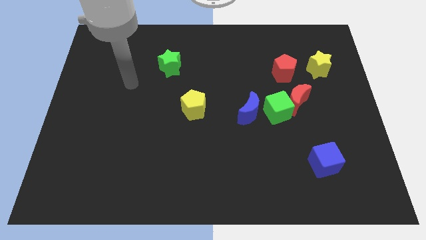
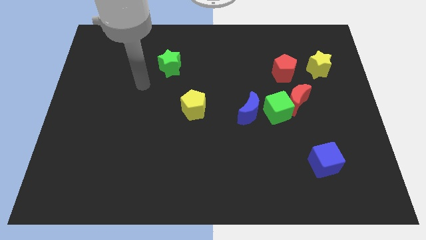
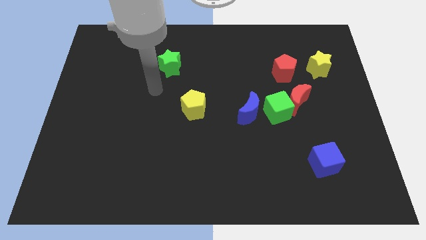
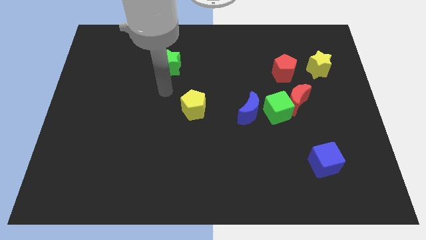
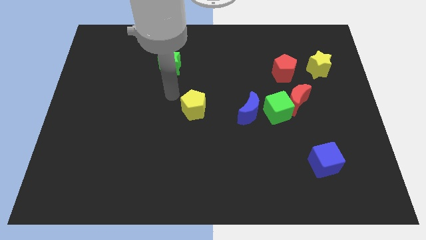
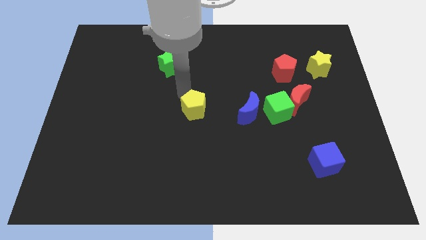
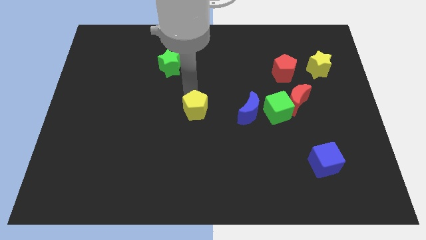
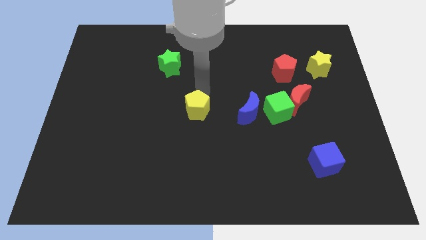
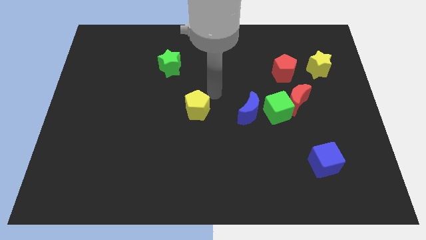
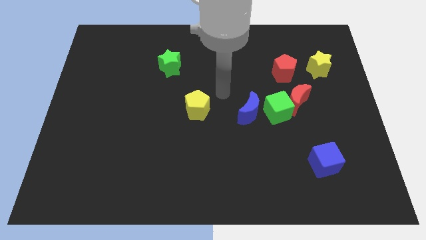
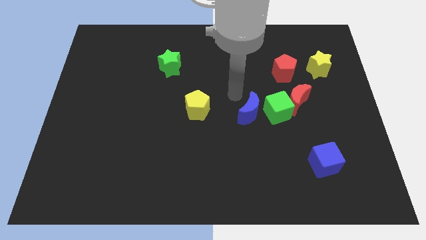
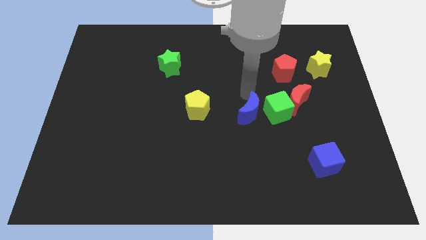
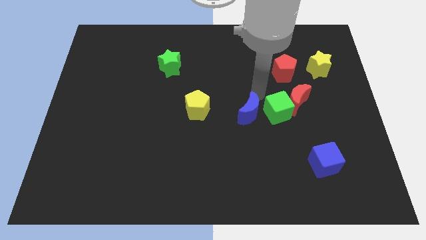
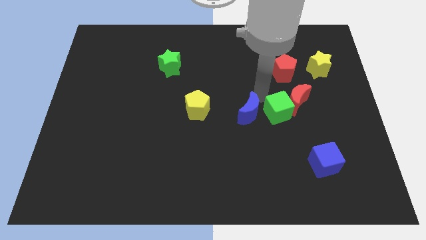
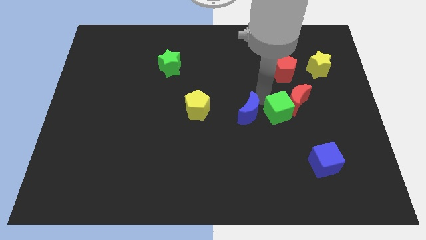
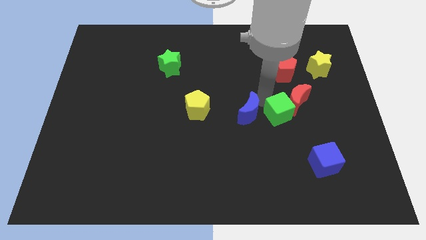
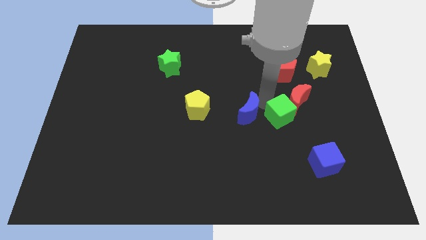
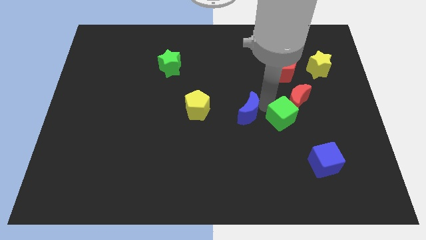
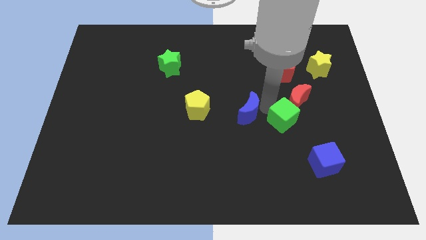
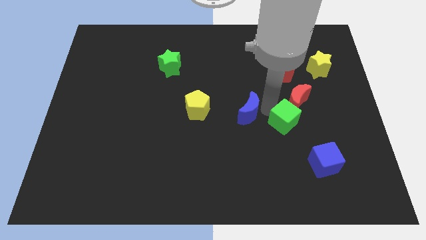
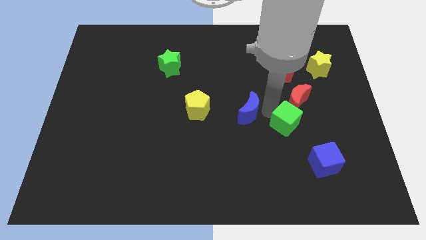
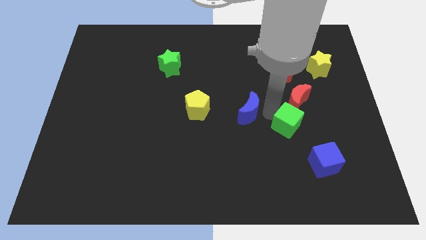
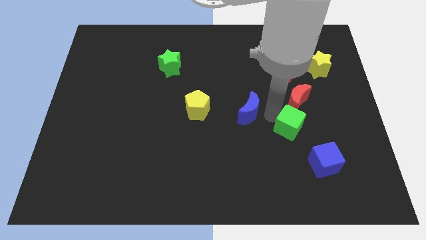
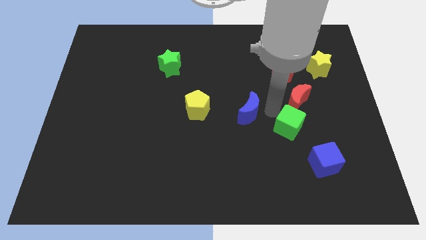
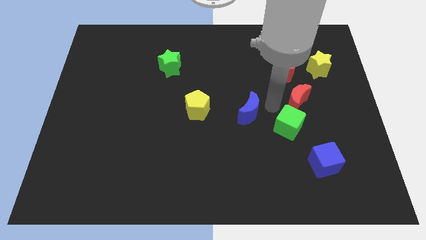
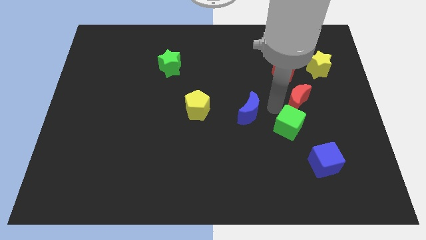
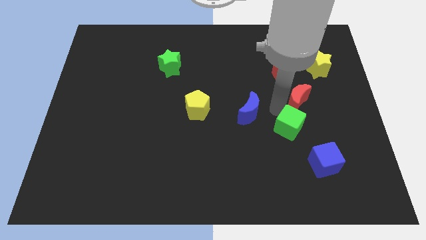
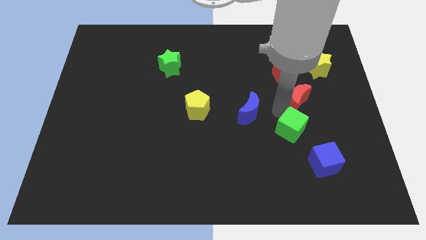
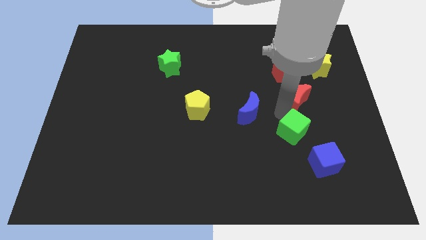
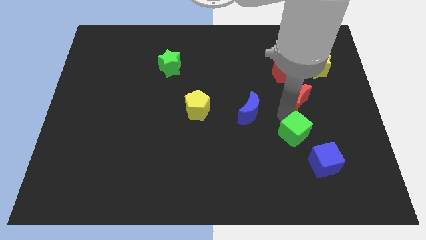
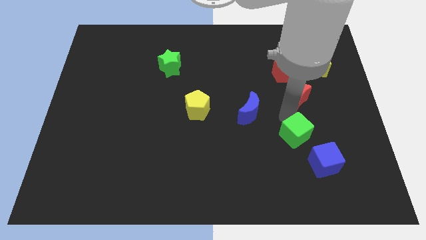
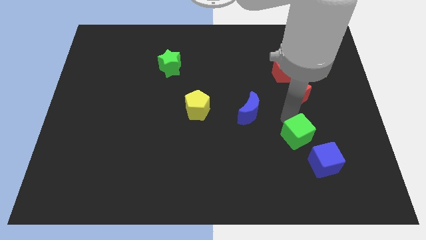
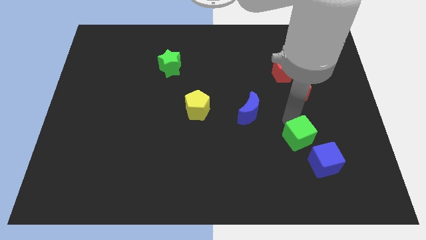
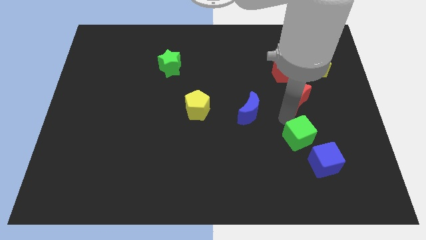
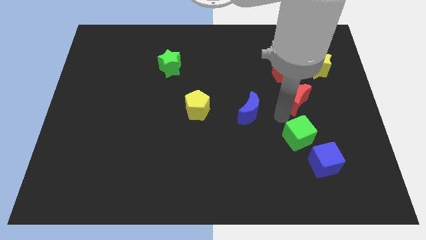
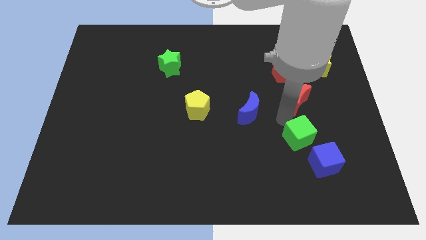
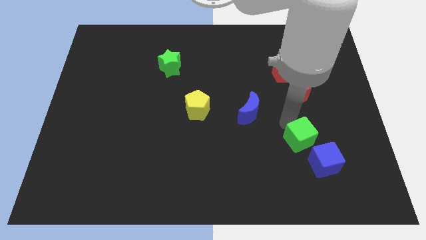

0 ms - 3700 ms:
pull the green cube apart from the red moon and blue moon

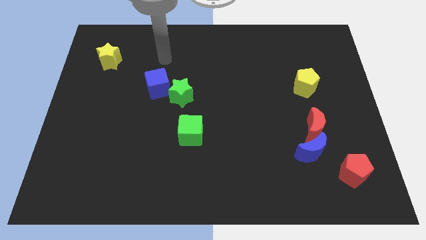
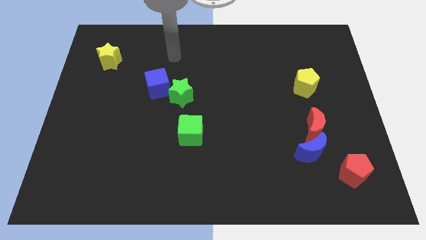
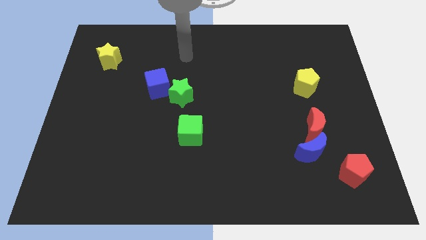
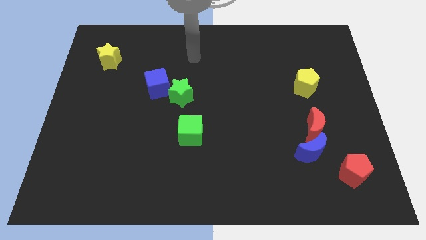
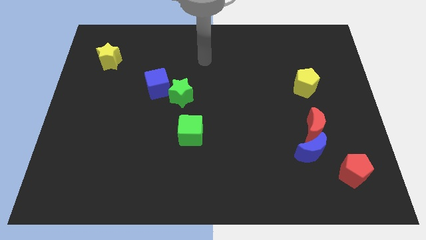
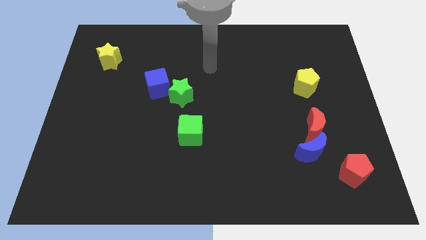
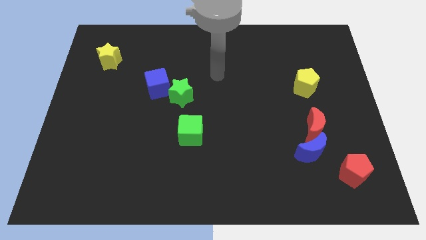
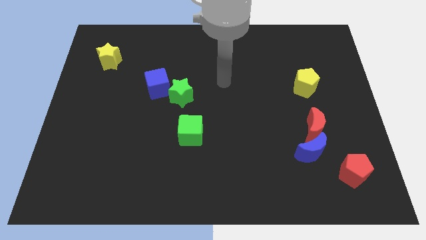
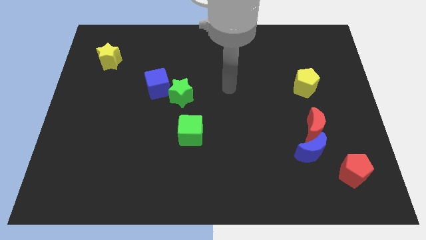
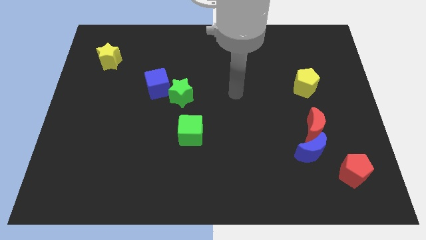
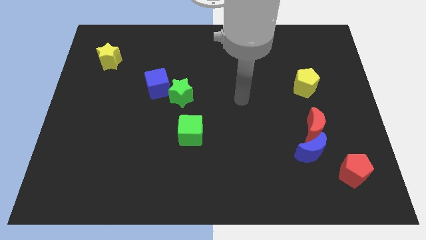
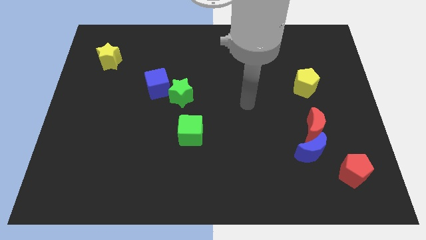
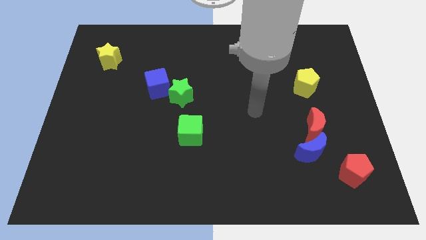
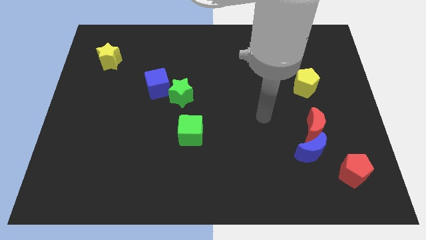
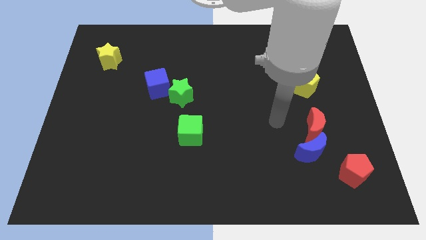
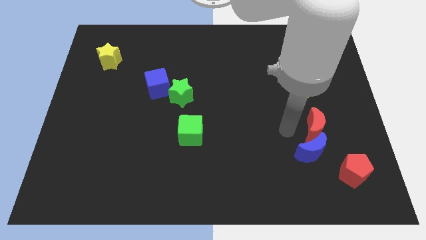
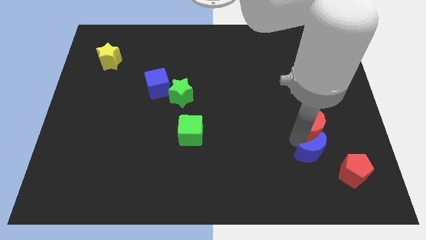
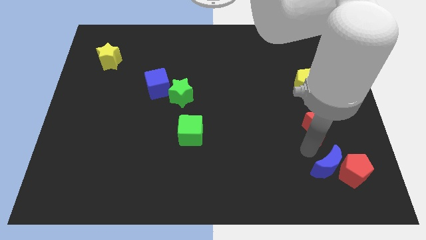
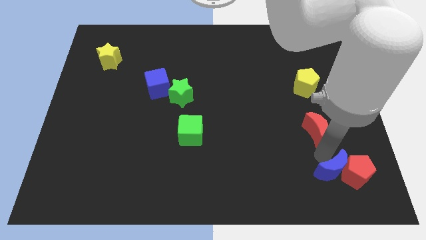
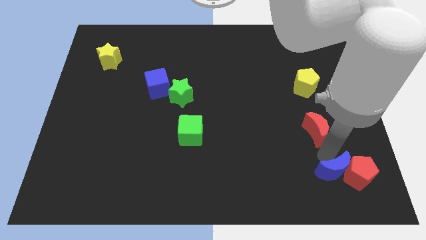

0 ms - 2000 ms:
separate the red moon from the blue moon

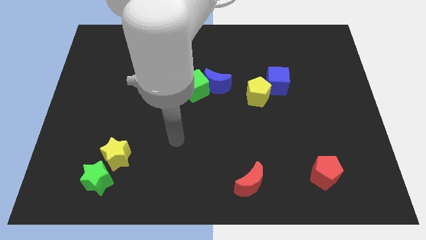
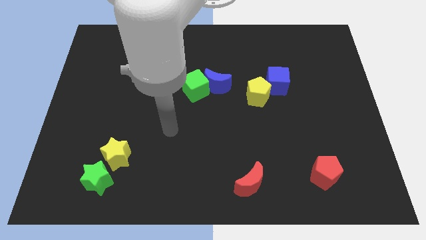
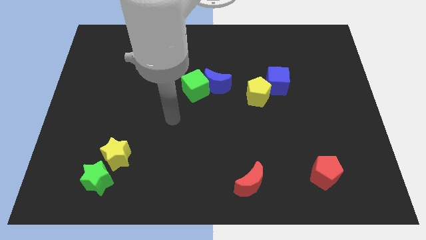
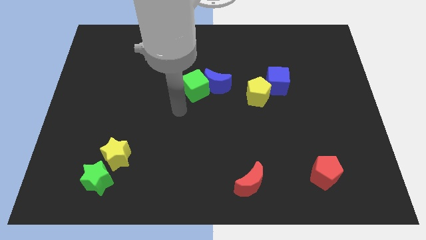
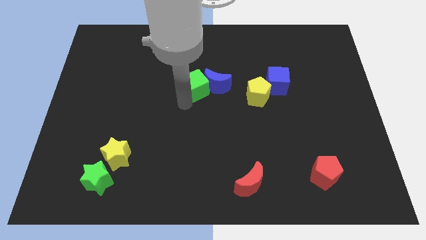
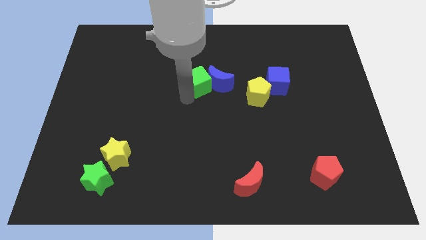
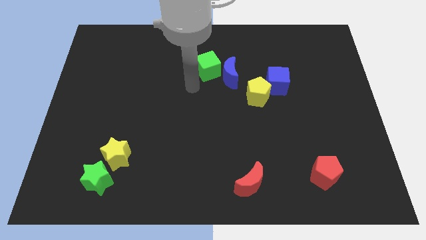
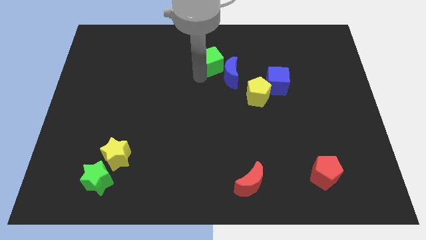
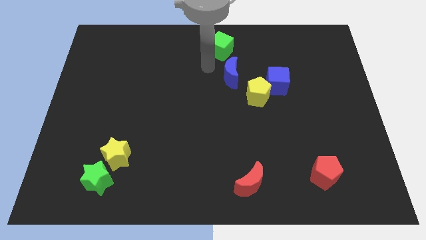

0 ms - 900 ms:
separate the blue moon from the green cube

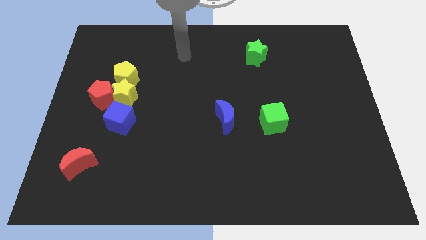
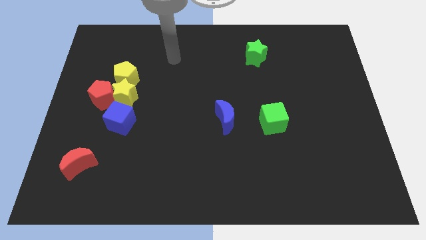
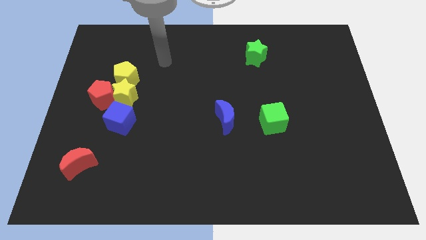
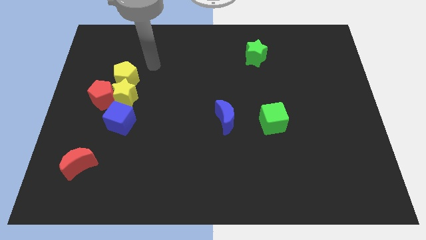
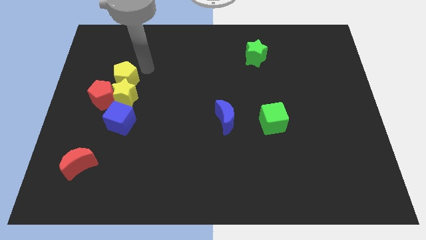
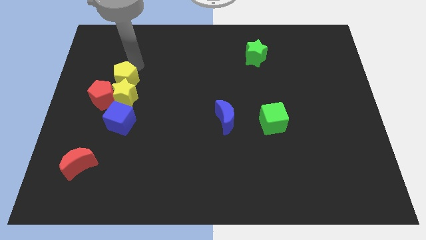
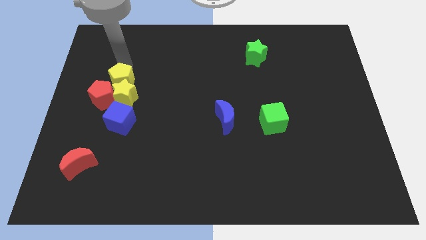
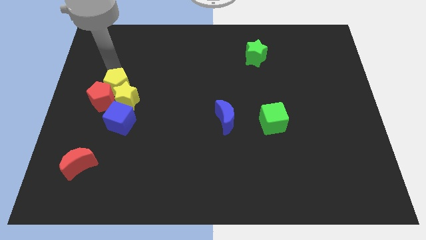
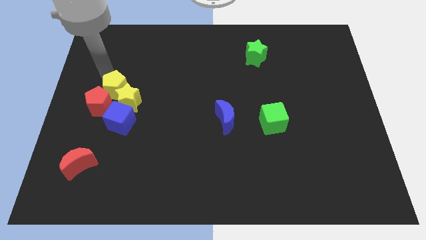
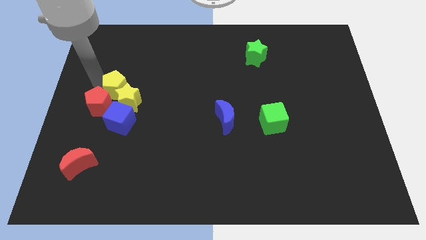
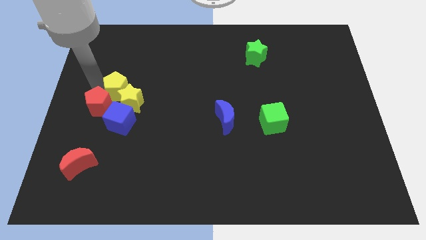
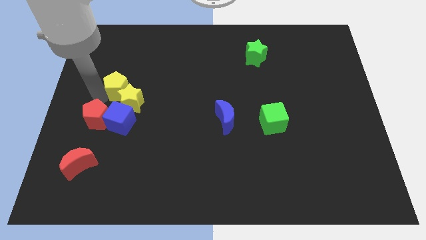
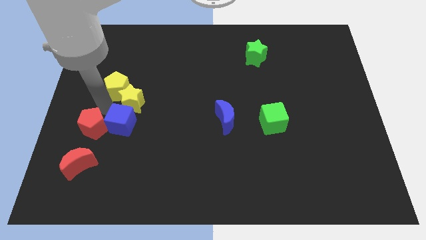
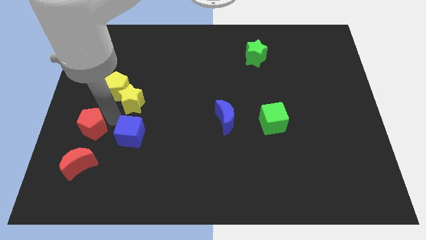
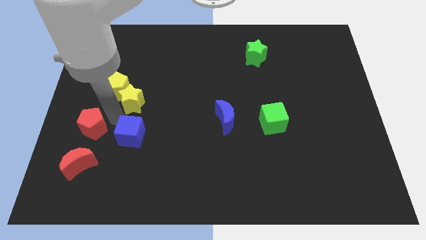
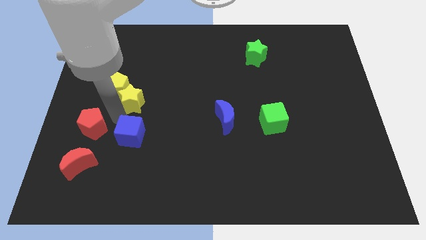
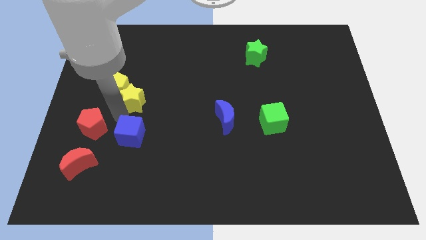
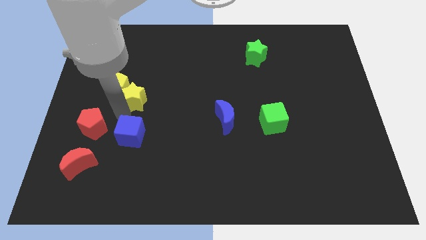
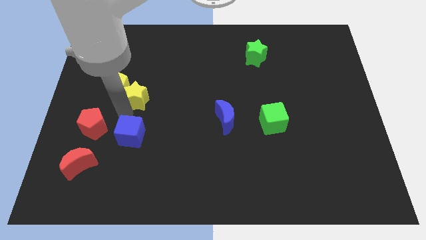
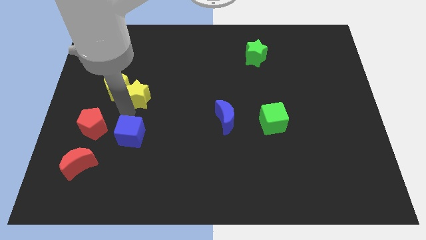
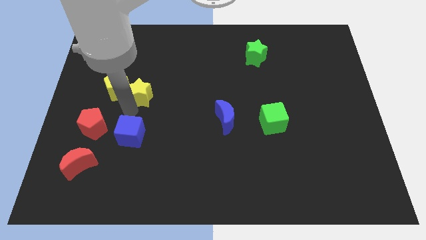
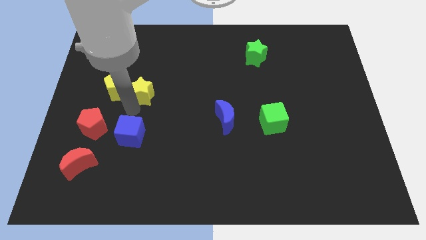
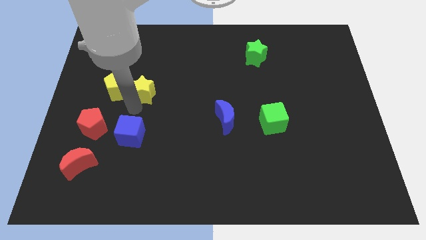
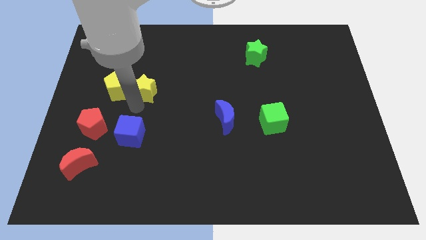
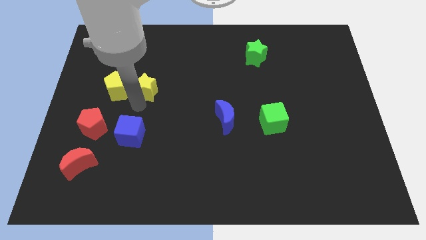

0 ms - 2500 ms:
separate the yellow star from the clump

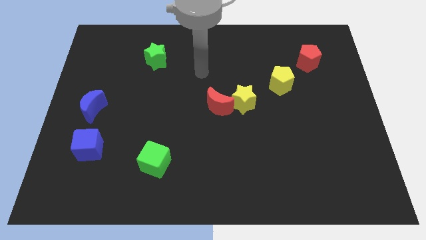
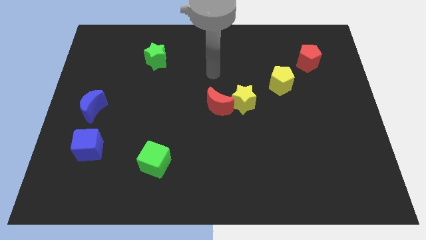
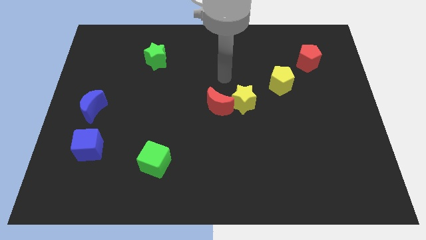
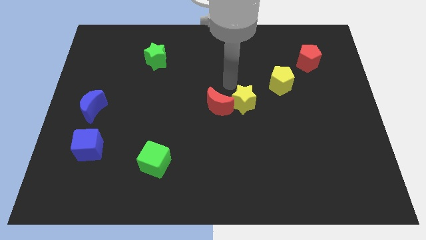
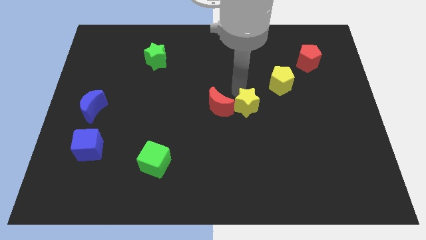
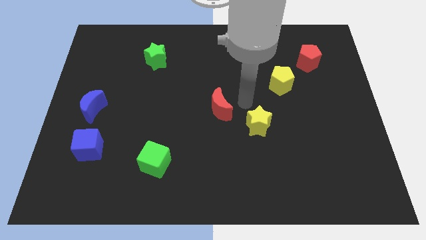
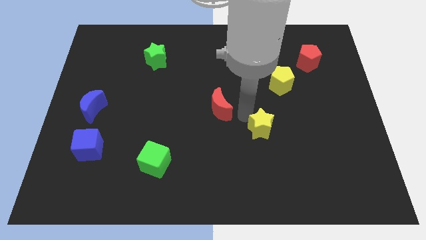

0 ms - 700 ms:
separate the red moon from the yellow star
